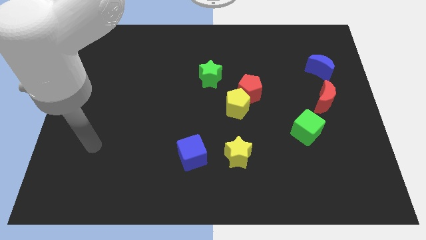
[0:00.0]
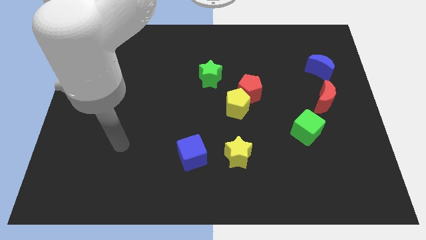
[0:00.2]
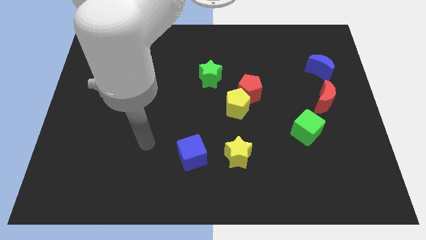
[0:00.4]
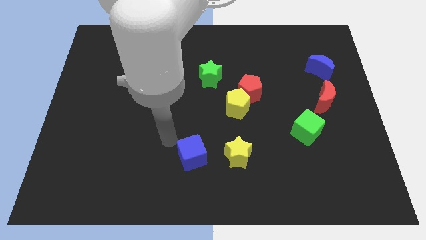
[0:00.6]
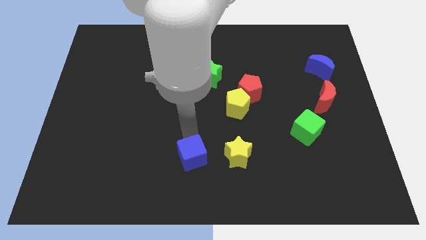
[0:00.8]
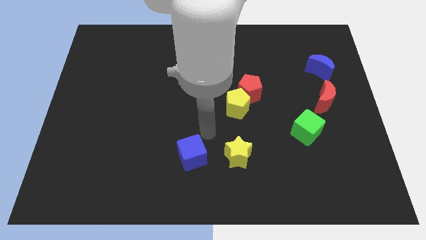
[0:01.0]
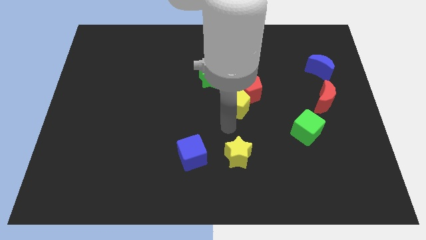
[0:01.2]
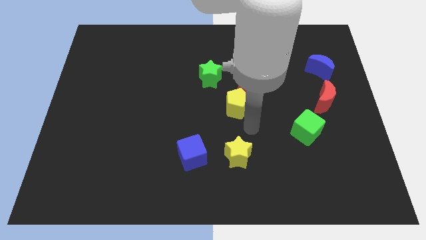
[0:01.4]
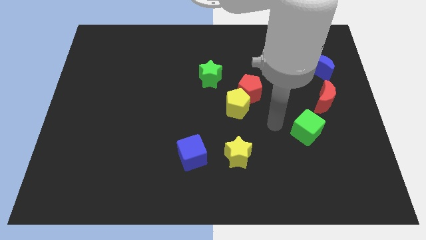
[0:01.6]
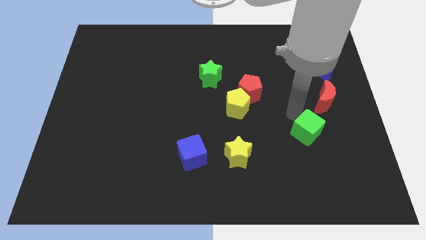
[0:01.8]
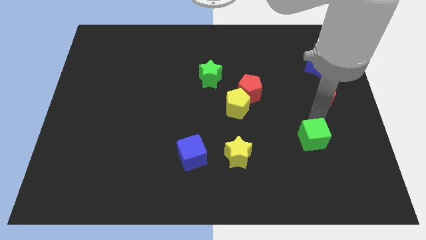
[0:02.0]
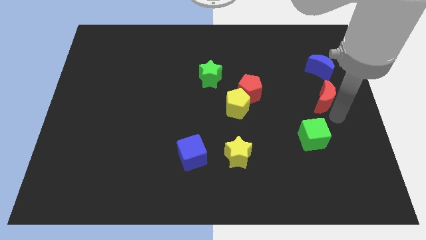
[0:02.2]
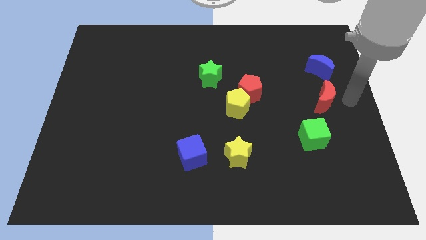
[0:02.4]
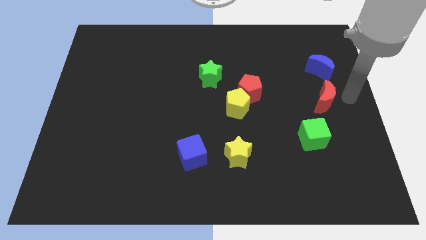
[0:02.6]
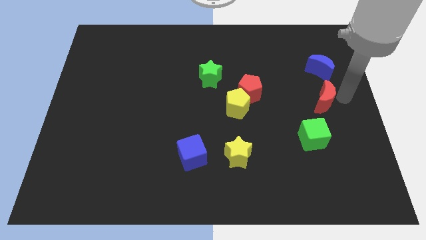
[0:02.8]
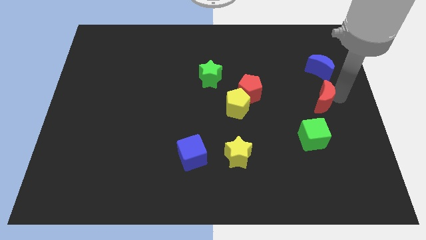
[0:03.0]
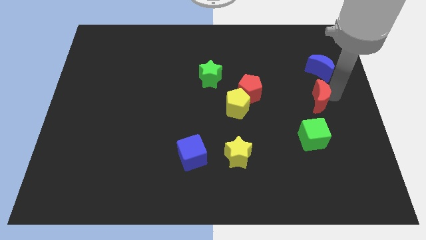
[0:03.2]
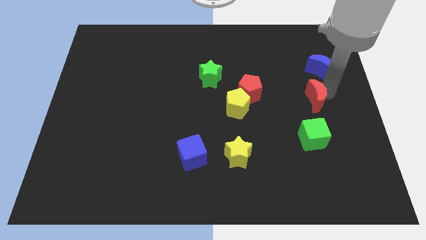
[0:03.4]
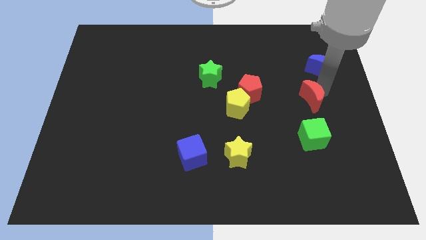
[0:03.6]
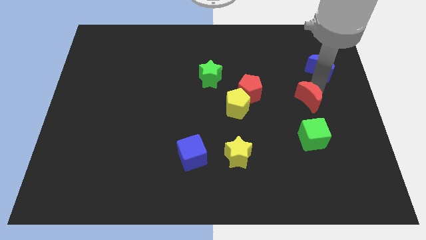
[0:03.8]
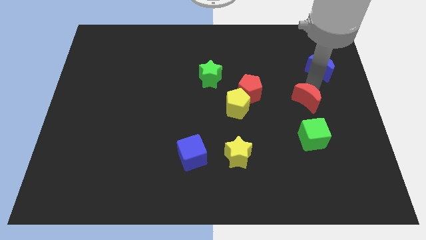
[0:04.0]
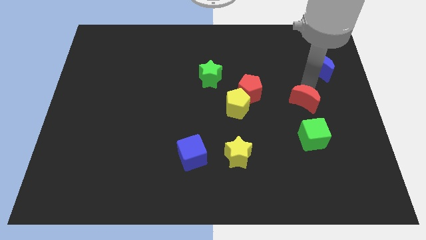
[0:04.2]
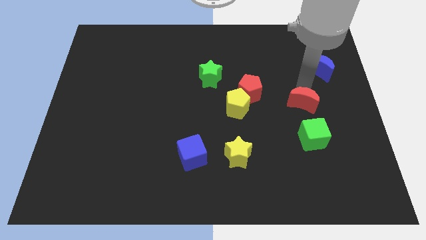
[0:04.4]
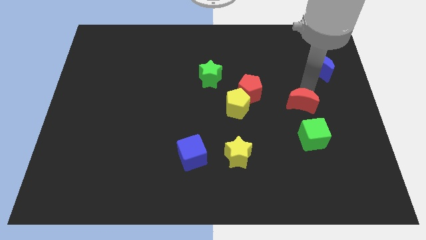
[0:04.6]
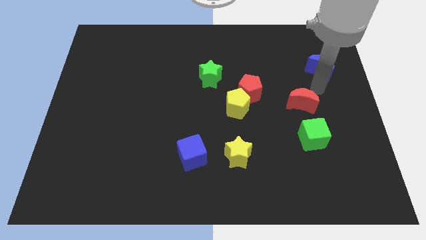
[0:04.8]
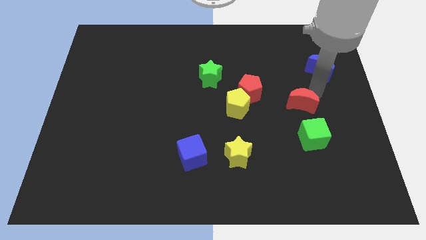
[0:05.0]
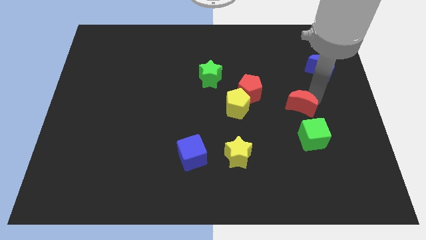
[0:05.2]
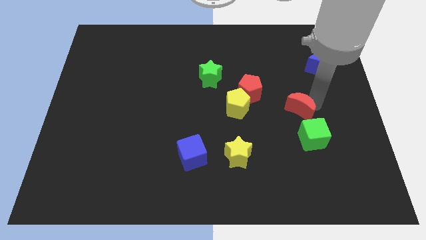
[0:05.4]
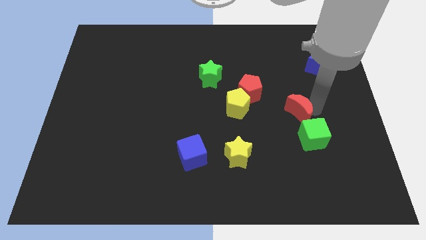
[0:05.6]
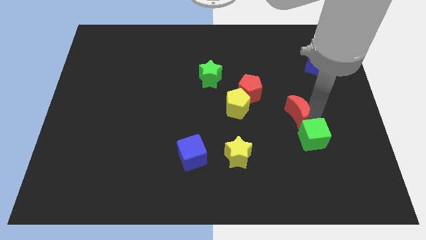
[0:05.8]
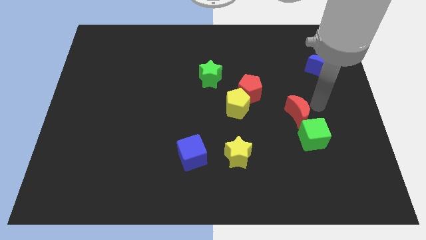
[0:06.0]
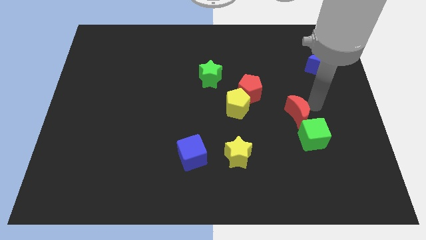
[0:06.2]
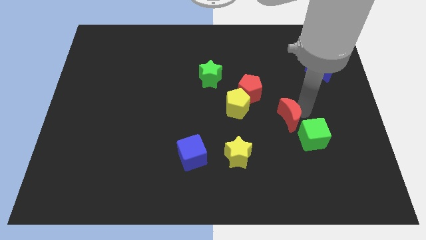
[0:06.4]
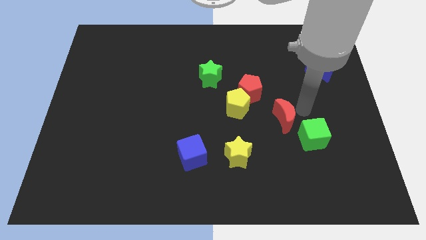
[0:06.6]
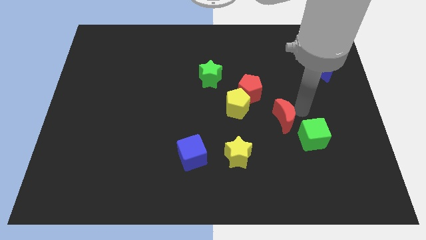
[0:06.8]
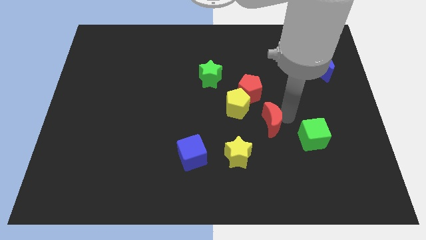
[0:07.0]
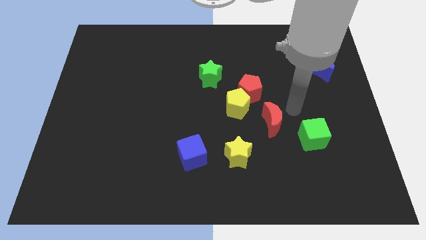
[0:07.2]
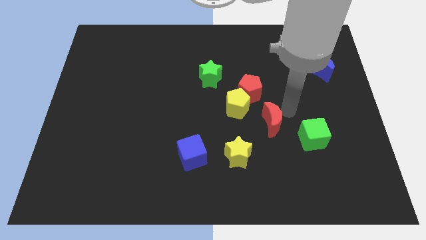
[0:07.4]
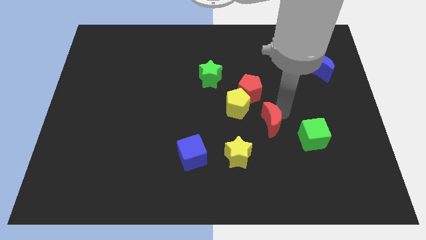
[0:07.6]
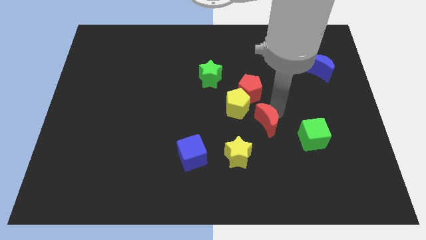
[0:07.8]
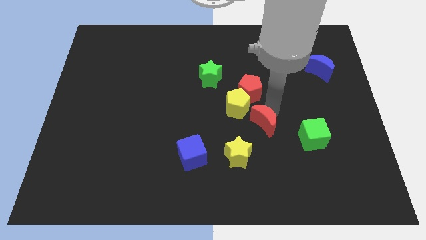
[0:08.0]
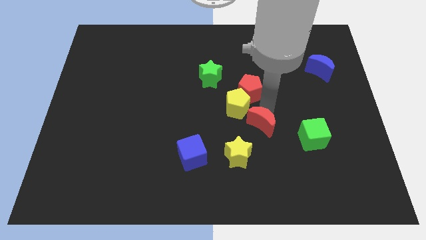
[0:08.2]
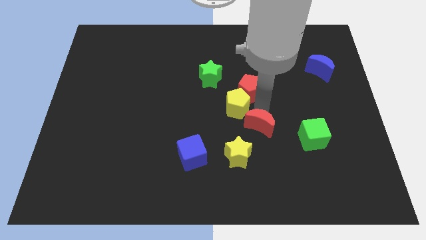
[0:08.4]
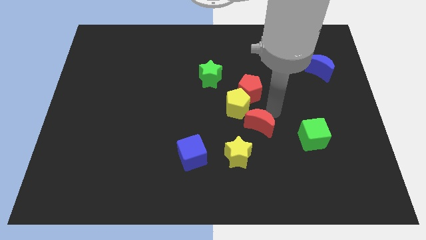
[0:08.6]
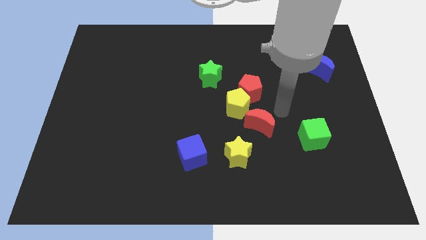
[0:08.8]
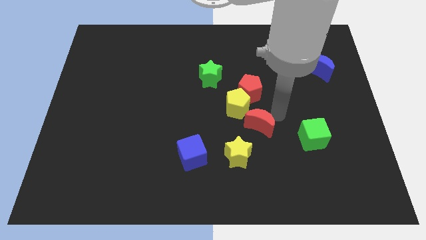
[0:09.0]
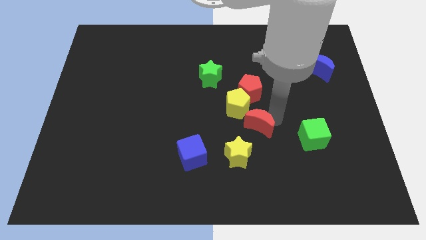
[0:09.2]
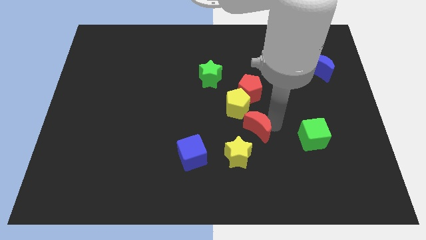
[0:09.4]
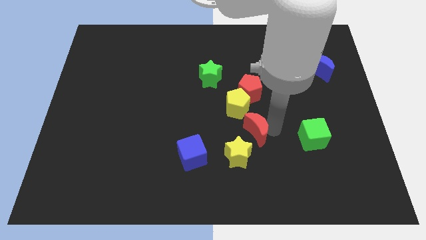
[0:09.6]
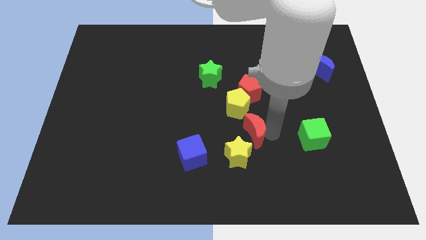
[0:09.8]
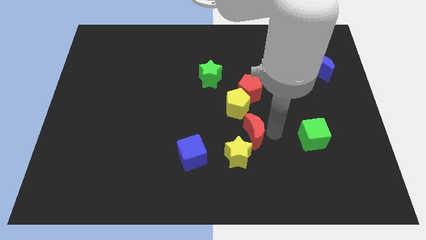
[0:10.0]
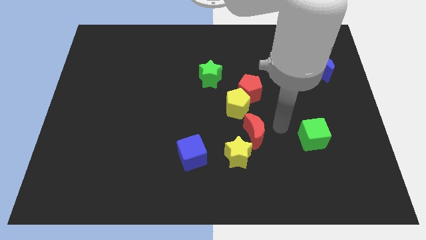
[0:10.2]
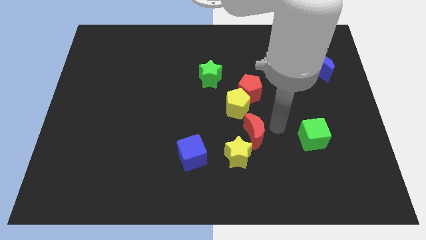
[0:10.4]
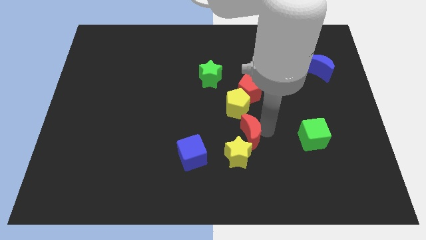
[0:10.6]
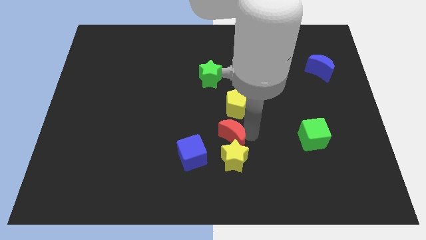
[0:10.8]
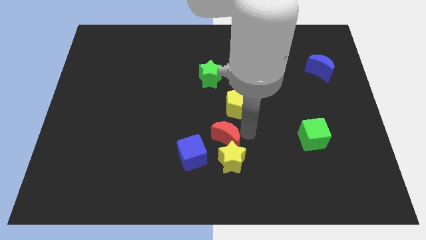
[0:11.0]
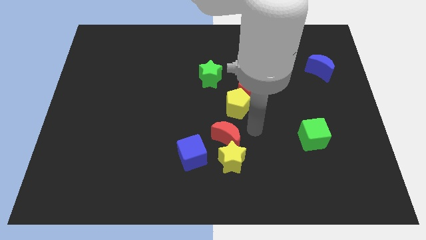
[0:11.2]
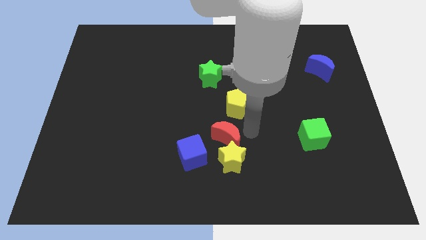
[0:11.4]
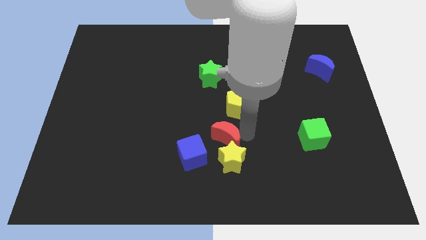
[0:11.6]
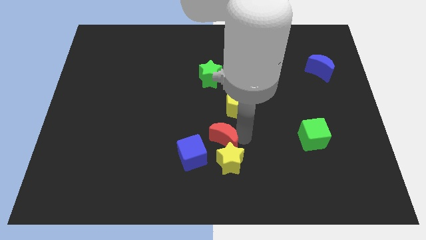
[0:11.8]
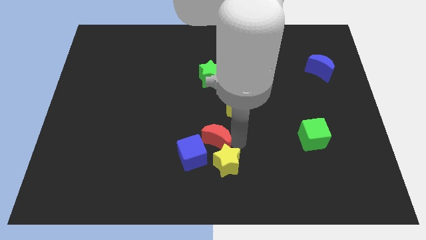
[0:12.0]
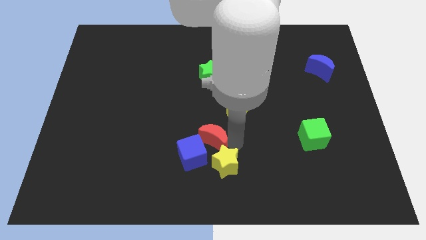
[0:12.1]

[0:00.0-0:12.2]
put the red moon to the blue cube

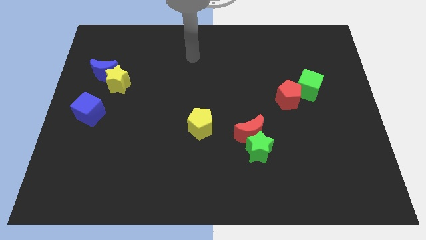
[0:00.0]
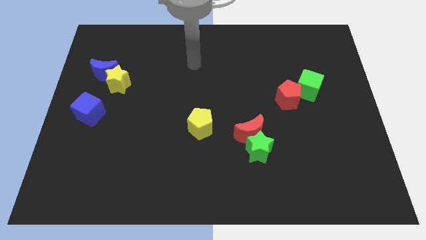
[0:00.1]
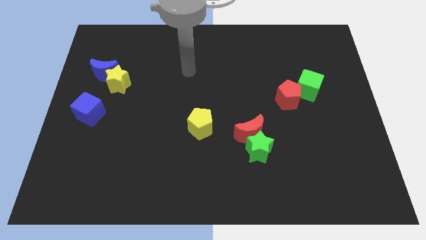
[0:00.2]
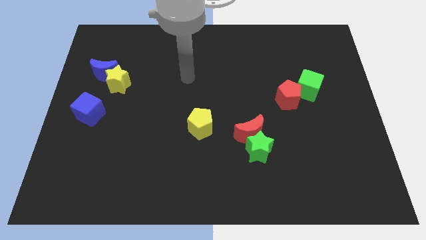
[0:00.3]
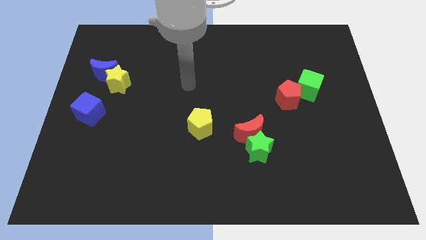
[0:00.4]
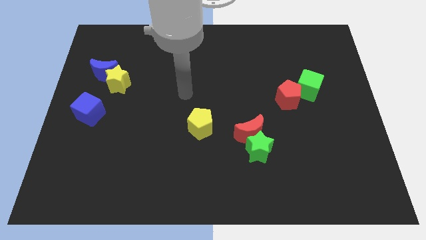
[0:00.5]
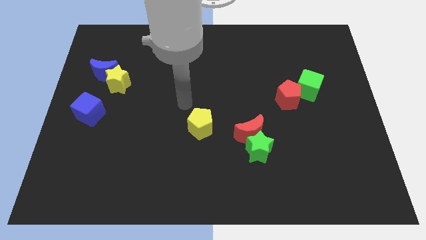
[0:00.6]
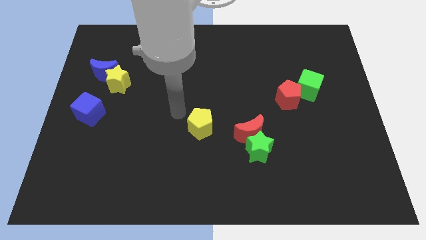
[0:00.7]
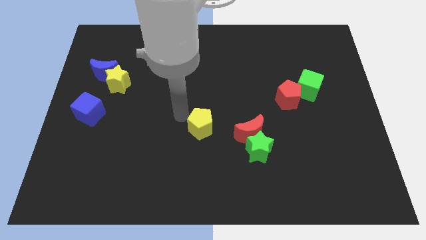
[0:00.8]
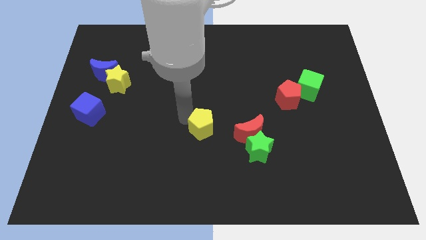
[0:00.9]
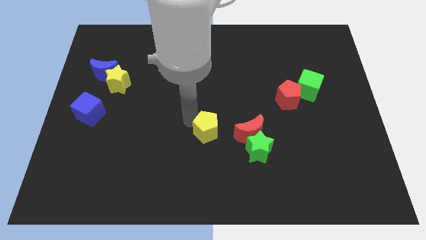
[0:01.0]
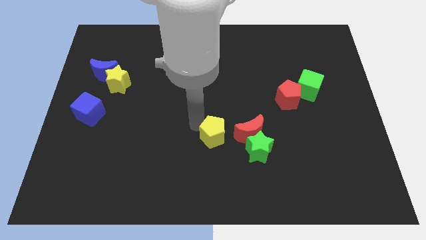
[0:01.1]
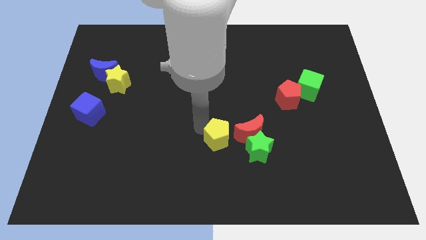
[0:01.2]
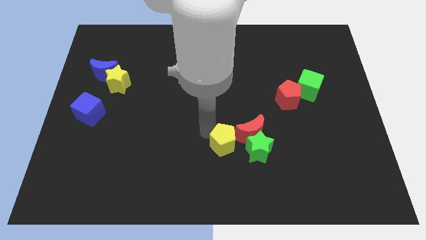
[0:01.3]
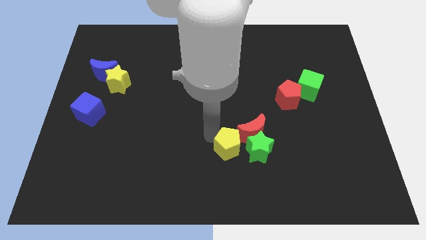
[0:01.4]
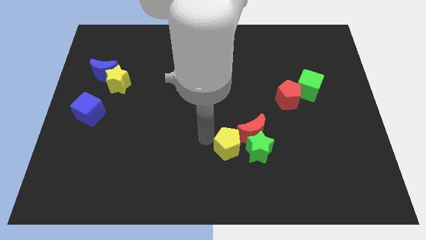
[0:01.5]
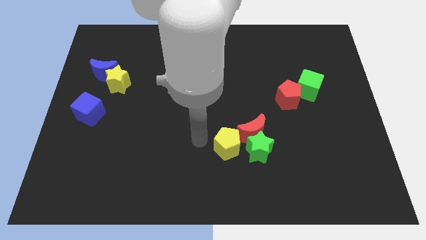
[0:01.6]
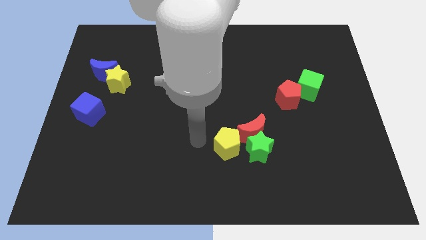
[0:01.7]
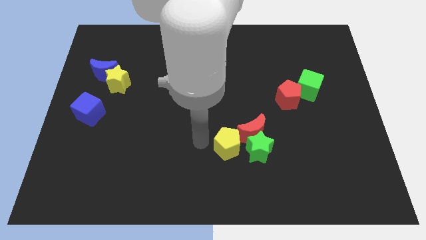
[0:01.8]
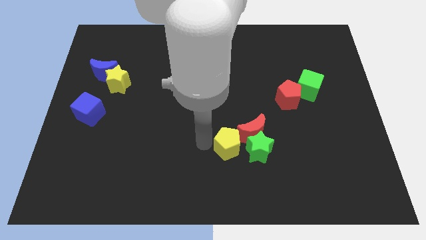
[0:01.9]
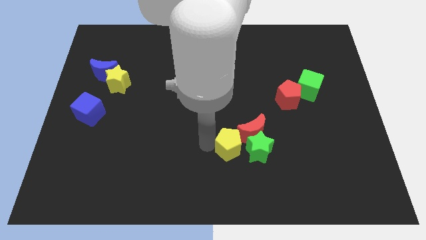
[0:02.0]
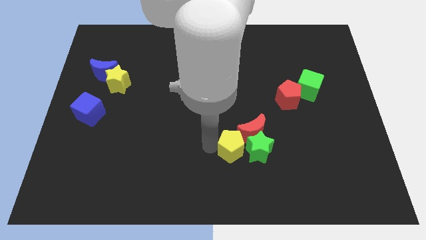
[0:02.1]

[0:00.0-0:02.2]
move the yellow pentagon close to the green star

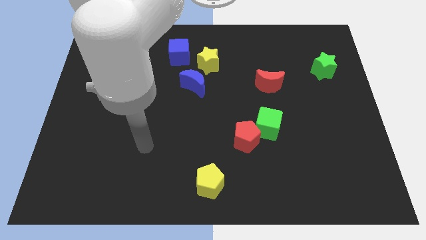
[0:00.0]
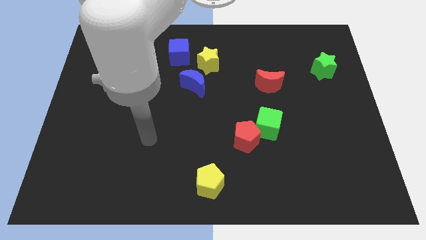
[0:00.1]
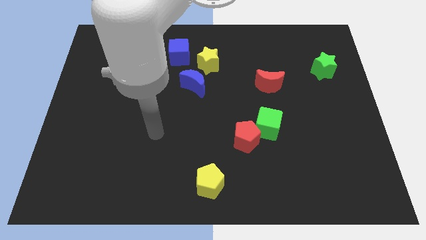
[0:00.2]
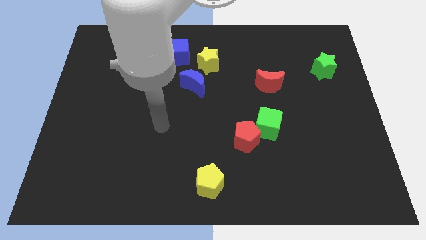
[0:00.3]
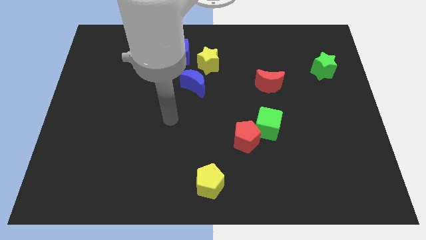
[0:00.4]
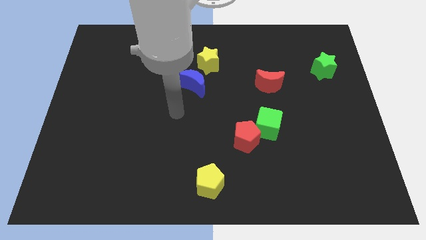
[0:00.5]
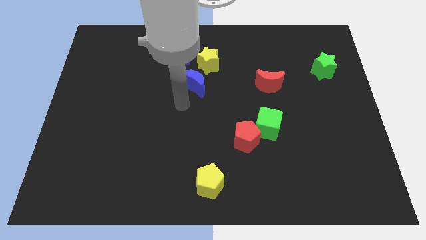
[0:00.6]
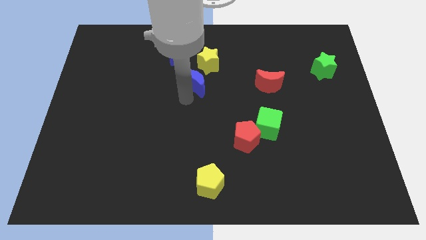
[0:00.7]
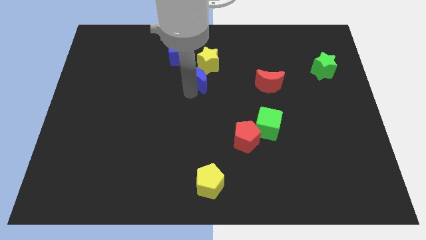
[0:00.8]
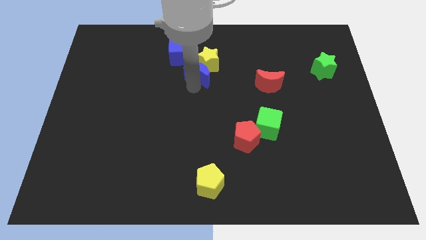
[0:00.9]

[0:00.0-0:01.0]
slide the blue moon next to the yellow star
